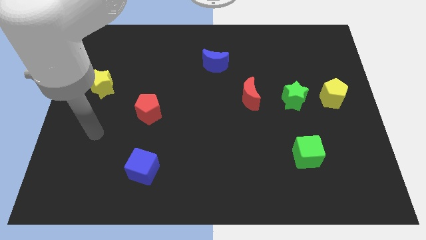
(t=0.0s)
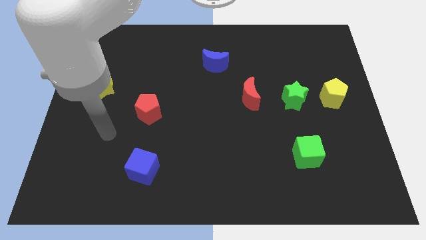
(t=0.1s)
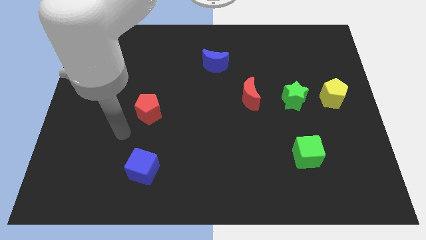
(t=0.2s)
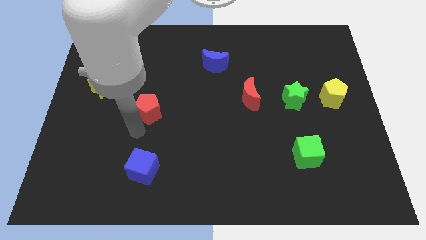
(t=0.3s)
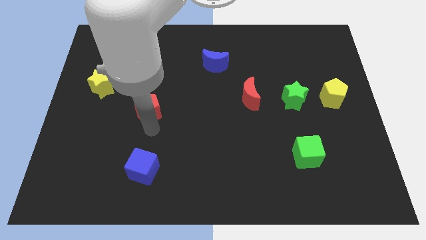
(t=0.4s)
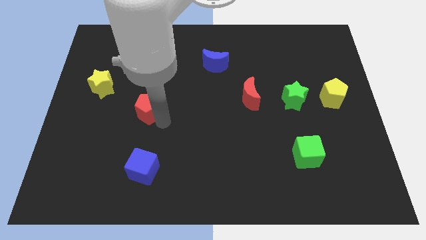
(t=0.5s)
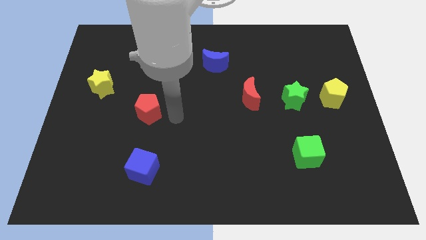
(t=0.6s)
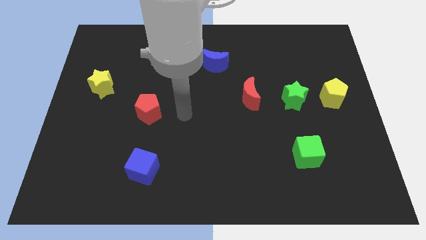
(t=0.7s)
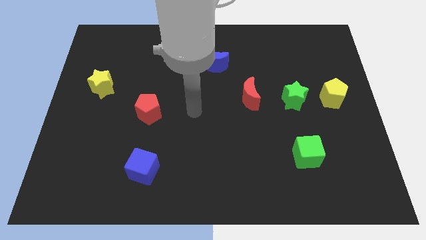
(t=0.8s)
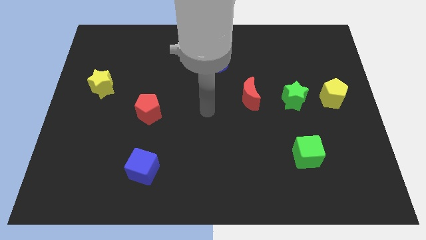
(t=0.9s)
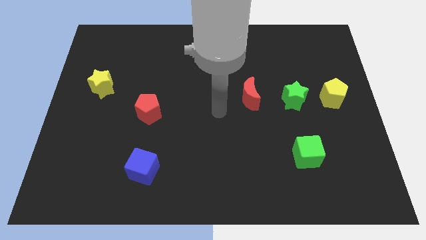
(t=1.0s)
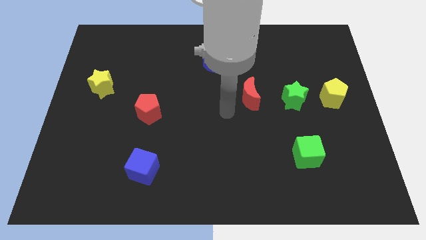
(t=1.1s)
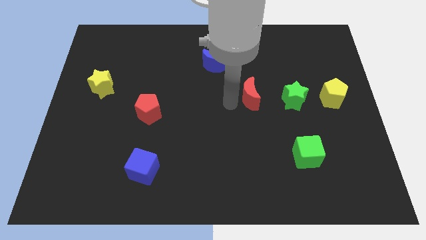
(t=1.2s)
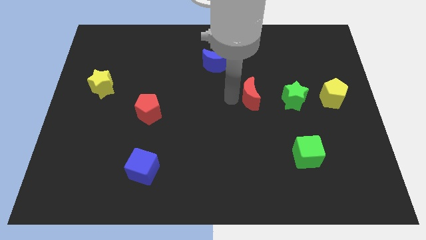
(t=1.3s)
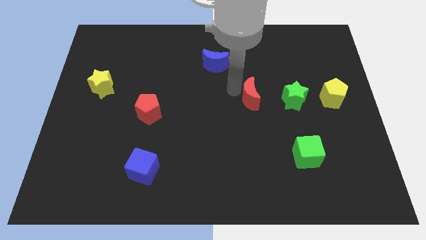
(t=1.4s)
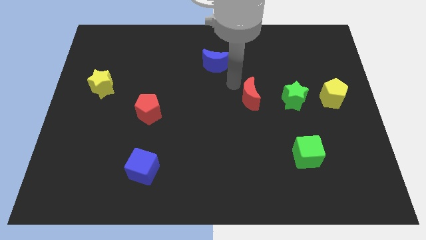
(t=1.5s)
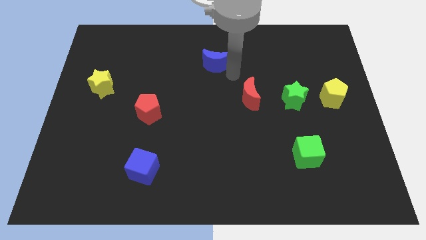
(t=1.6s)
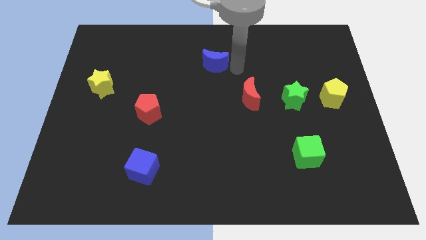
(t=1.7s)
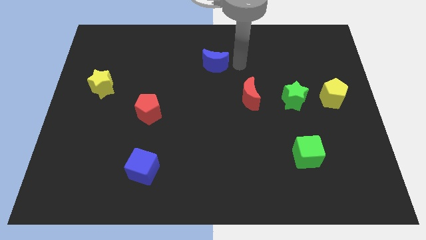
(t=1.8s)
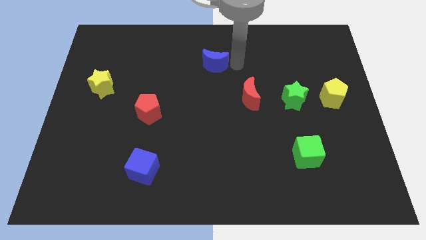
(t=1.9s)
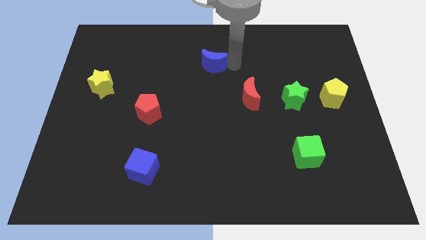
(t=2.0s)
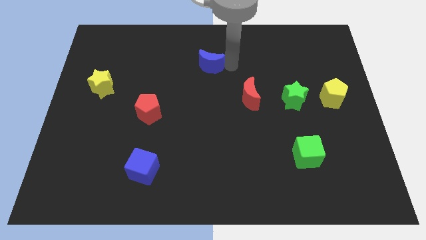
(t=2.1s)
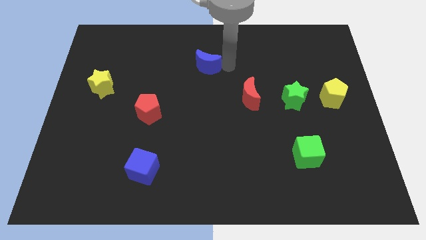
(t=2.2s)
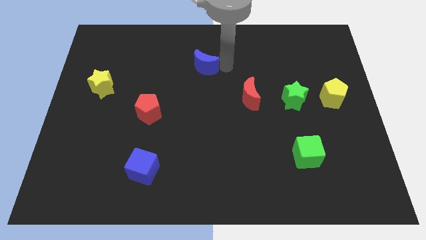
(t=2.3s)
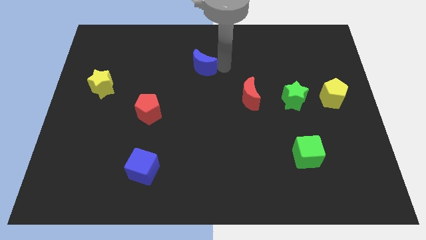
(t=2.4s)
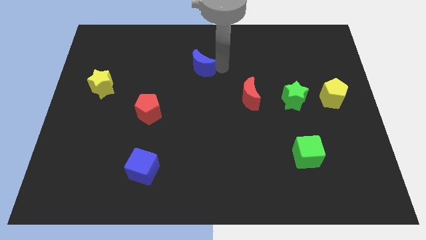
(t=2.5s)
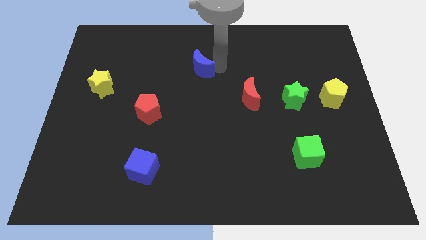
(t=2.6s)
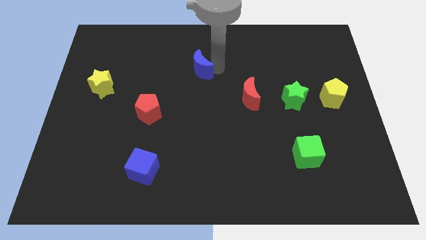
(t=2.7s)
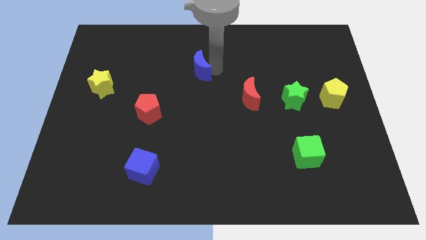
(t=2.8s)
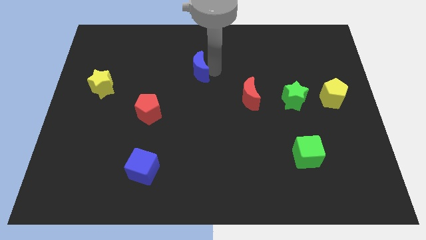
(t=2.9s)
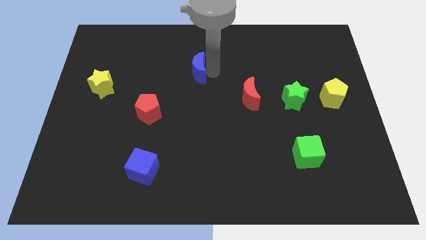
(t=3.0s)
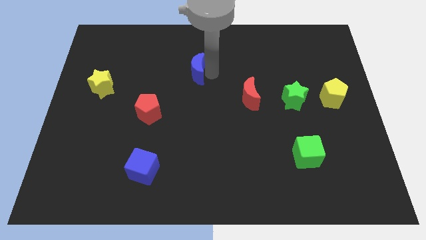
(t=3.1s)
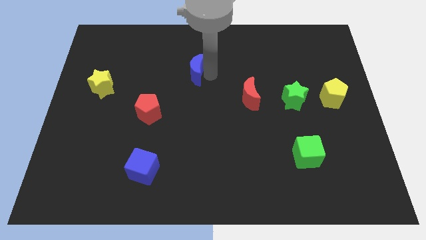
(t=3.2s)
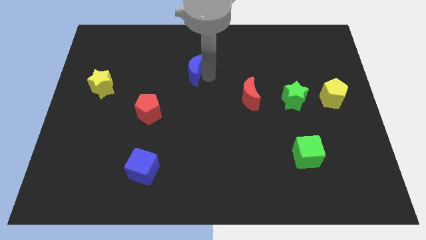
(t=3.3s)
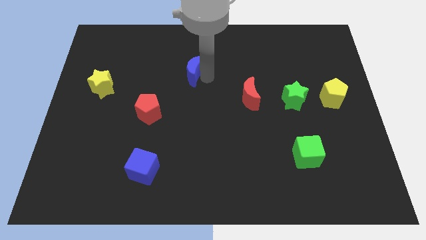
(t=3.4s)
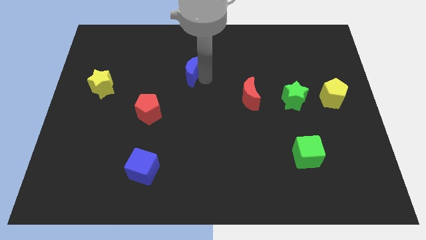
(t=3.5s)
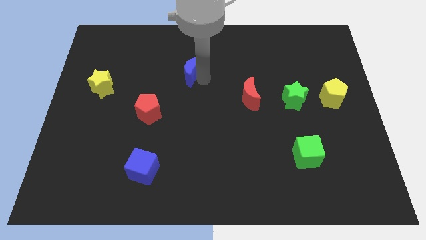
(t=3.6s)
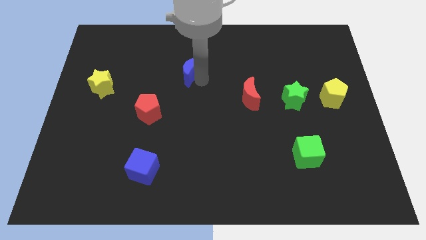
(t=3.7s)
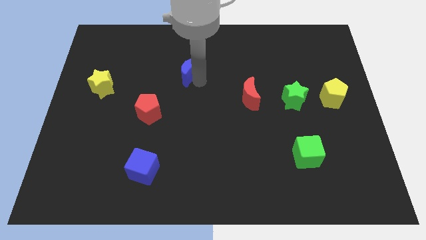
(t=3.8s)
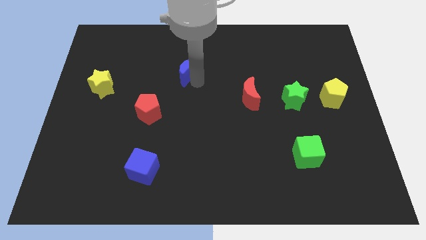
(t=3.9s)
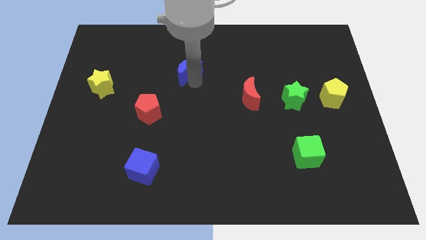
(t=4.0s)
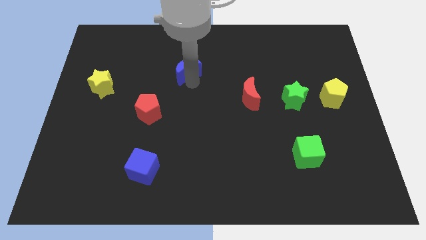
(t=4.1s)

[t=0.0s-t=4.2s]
slightly move the blue moon left

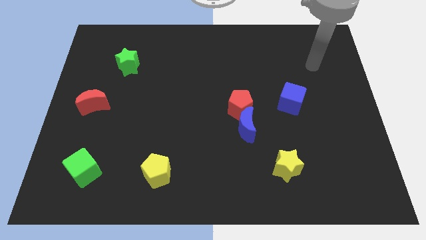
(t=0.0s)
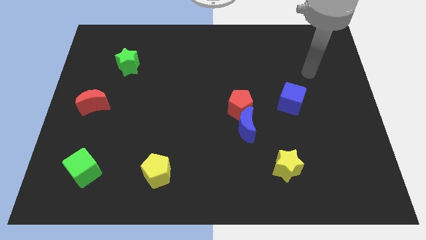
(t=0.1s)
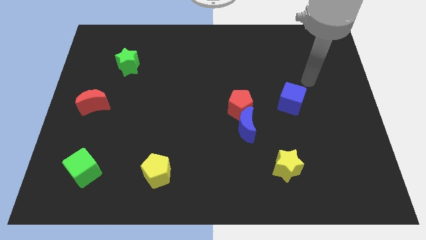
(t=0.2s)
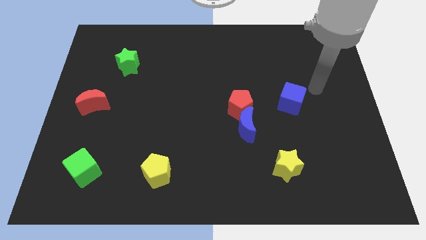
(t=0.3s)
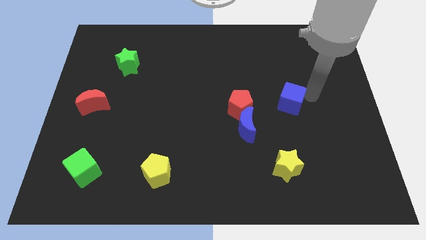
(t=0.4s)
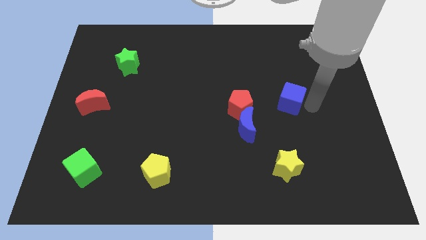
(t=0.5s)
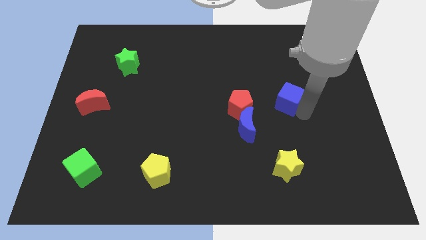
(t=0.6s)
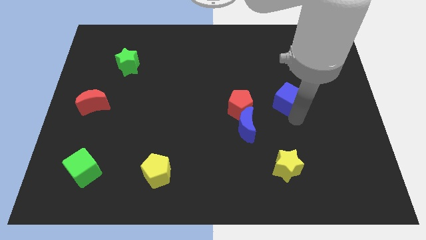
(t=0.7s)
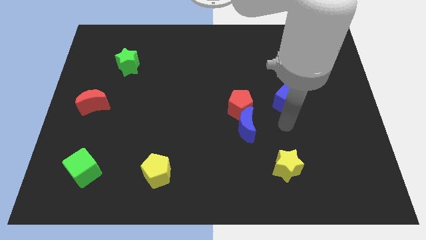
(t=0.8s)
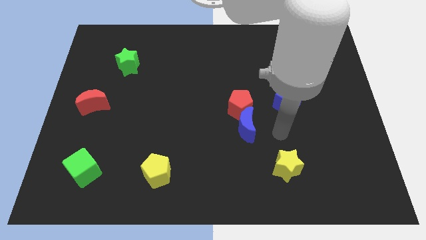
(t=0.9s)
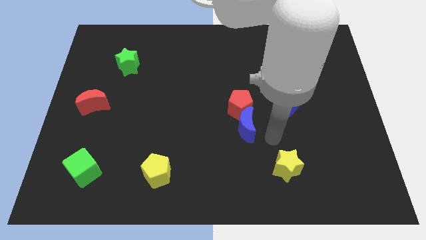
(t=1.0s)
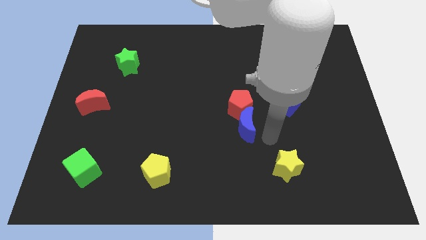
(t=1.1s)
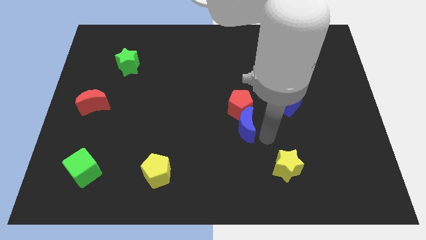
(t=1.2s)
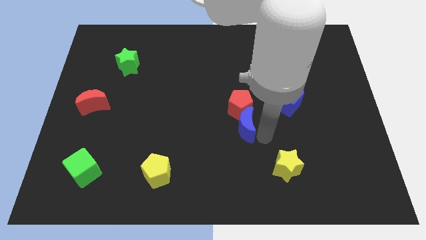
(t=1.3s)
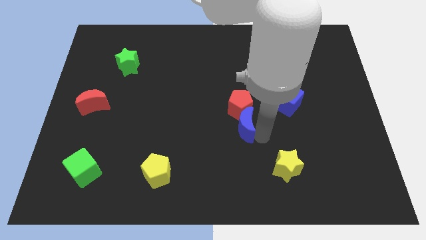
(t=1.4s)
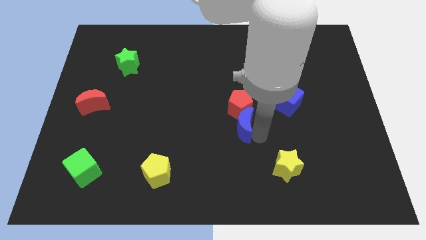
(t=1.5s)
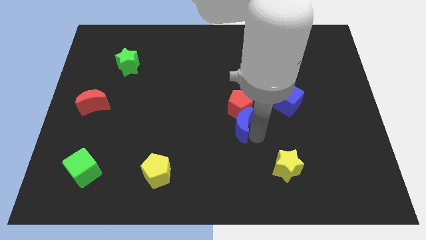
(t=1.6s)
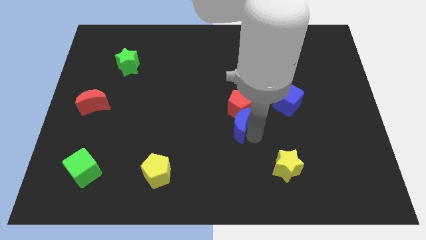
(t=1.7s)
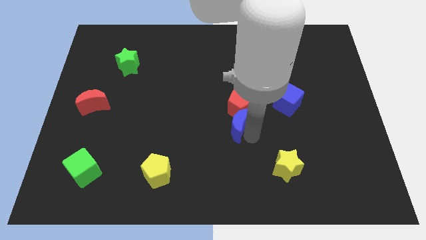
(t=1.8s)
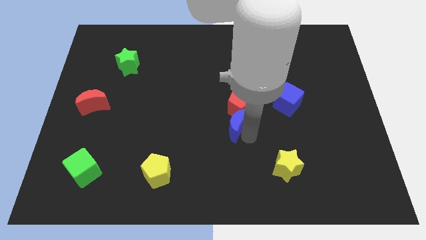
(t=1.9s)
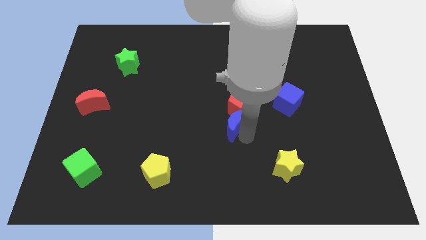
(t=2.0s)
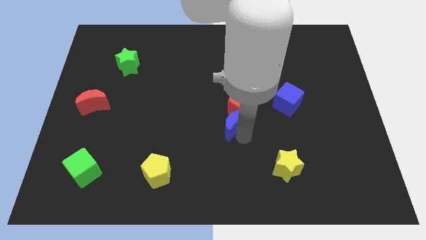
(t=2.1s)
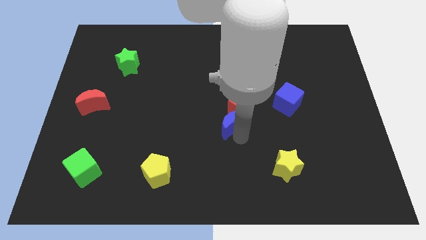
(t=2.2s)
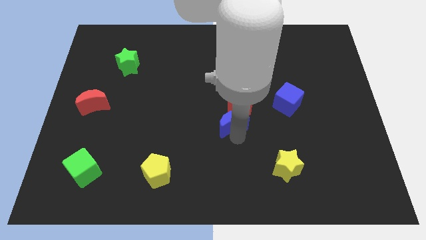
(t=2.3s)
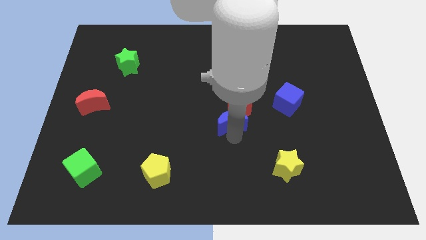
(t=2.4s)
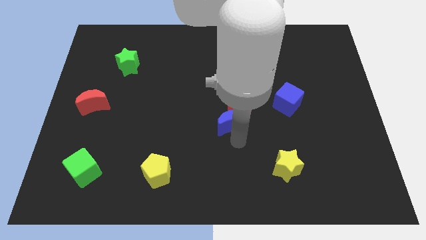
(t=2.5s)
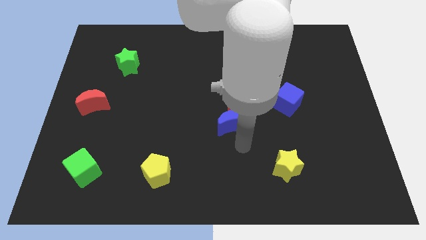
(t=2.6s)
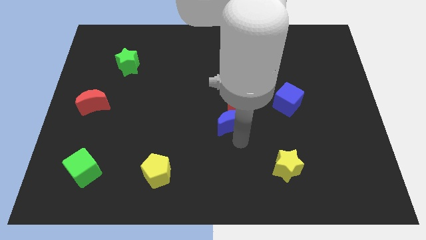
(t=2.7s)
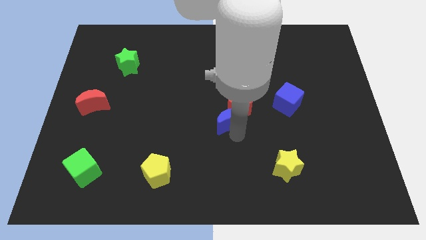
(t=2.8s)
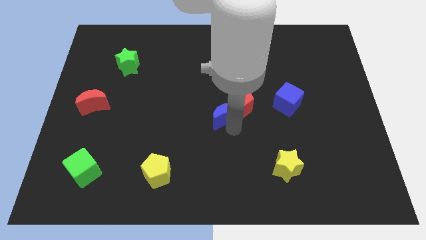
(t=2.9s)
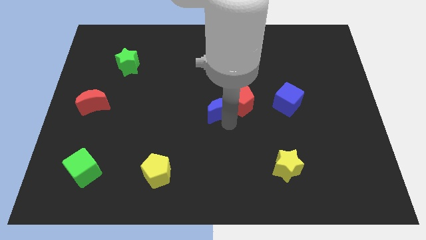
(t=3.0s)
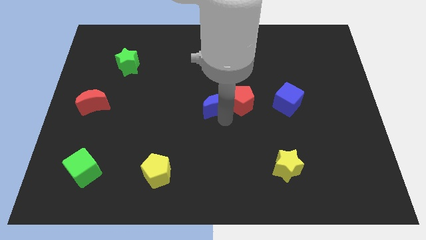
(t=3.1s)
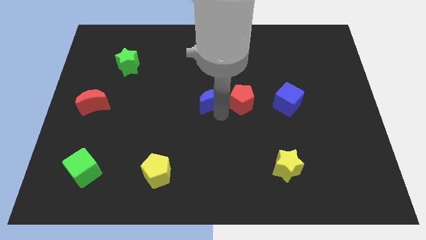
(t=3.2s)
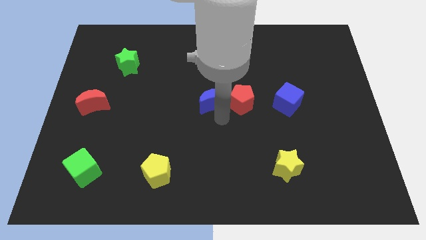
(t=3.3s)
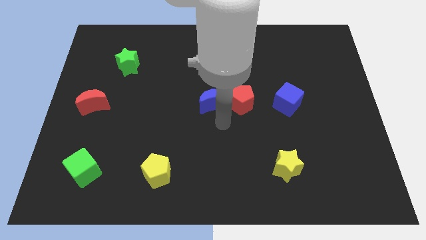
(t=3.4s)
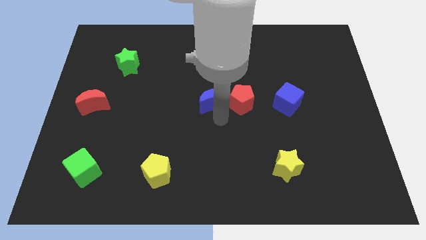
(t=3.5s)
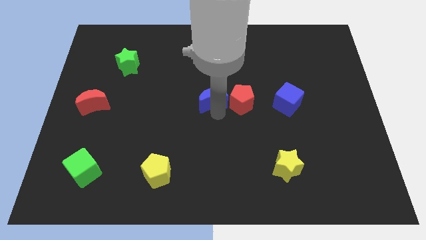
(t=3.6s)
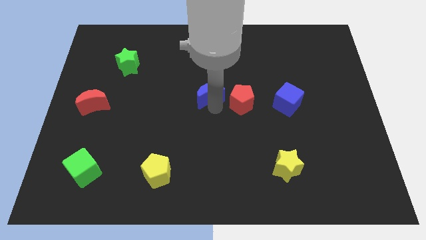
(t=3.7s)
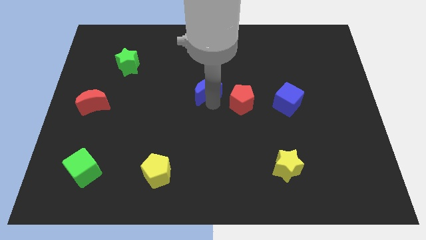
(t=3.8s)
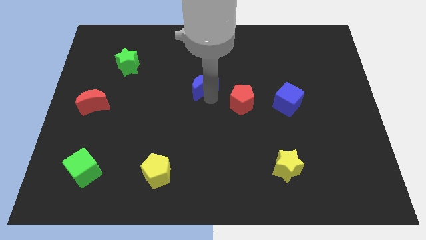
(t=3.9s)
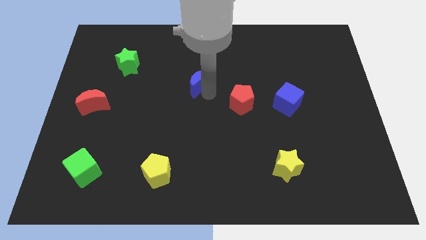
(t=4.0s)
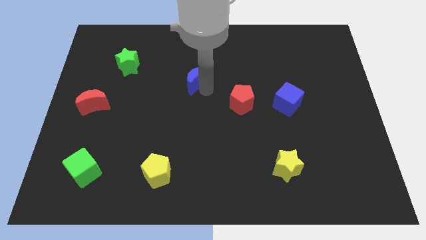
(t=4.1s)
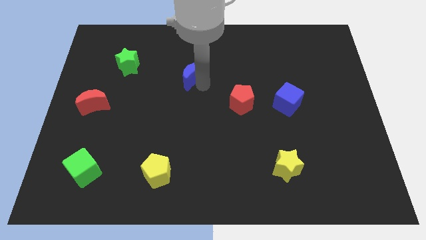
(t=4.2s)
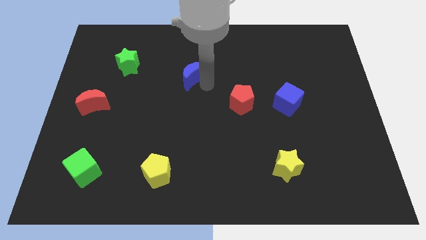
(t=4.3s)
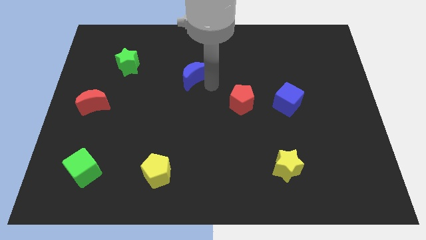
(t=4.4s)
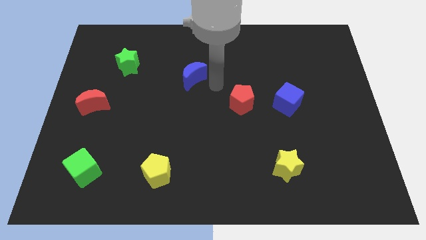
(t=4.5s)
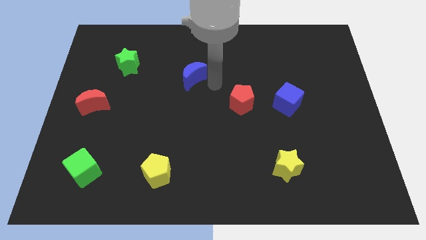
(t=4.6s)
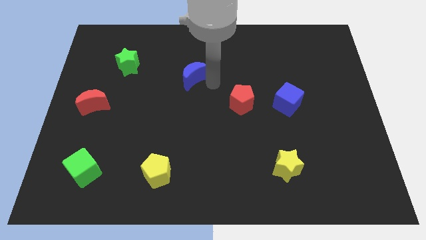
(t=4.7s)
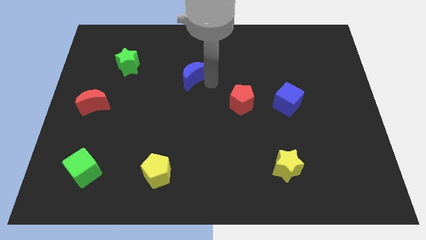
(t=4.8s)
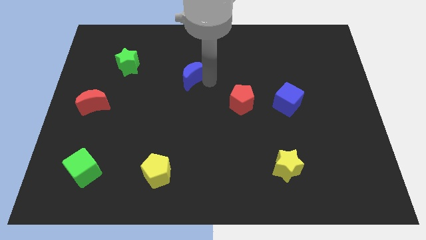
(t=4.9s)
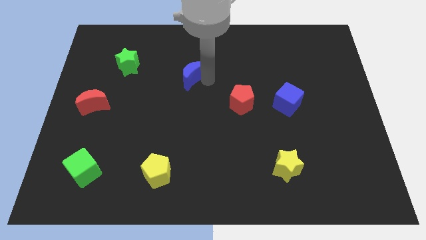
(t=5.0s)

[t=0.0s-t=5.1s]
move the blue moon upwards and left diagonally
